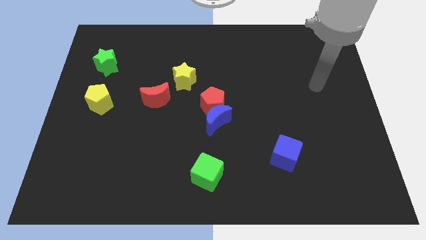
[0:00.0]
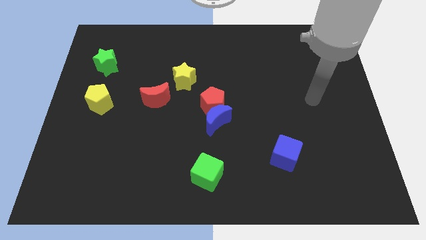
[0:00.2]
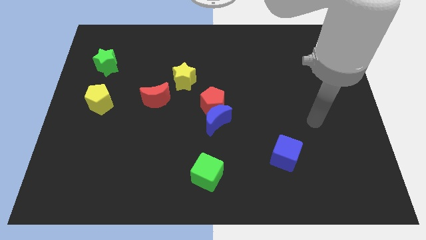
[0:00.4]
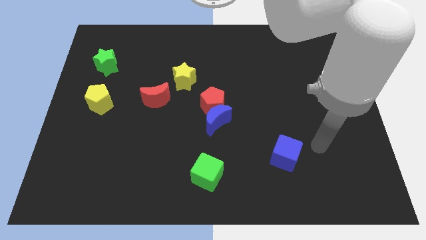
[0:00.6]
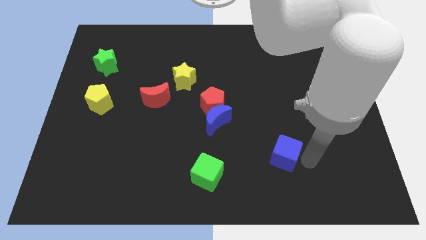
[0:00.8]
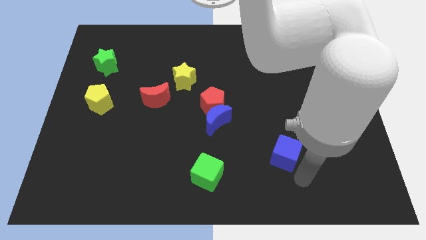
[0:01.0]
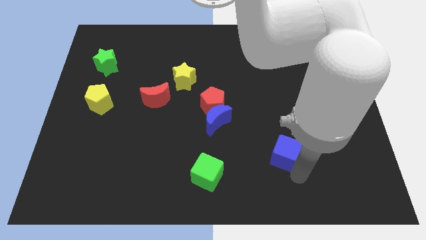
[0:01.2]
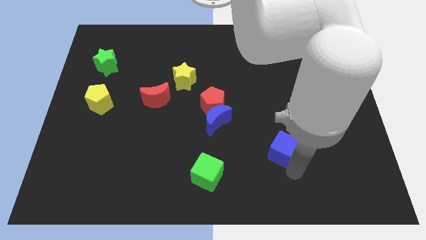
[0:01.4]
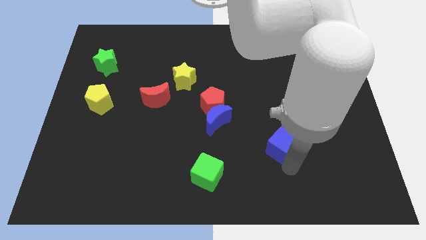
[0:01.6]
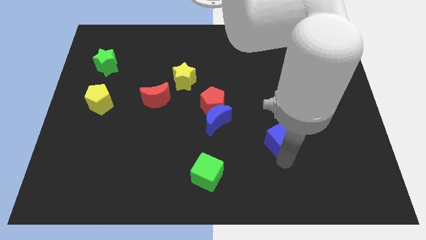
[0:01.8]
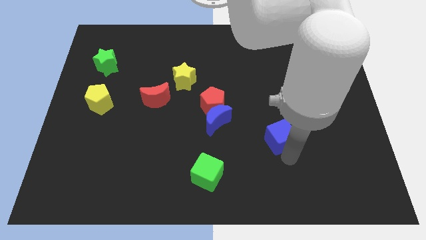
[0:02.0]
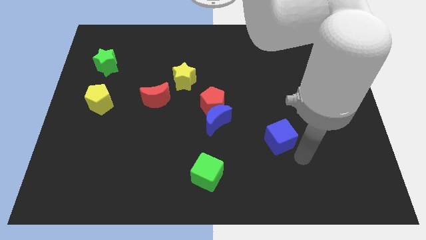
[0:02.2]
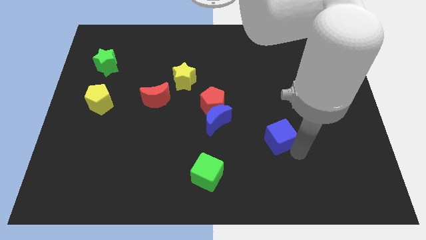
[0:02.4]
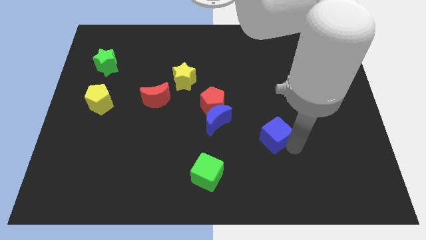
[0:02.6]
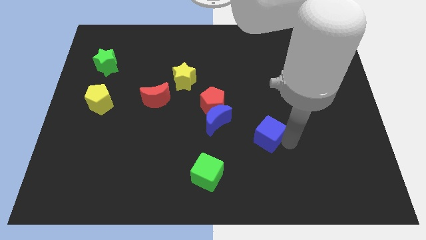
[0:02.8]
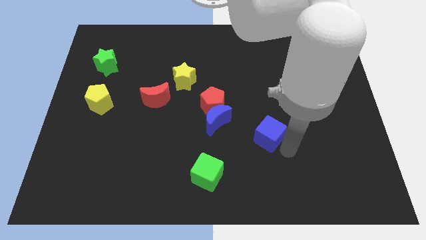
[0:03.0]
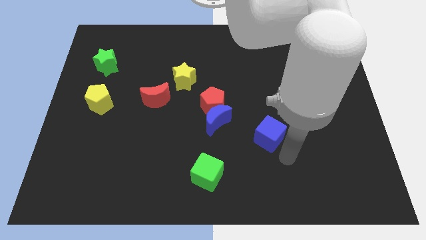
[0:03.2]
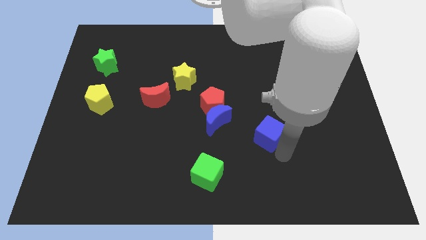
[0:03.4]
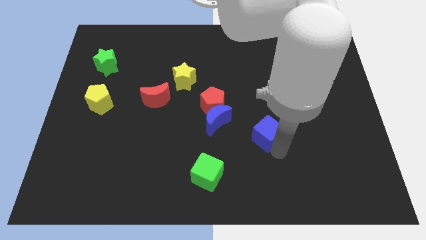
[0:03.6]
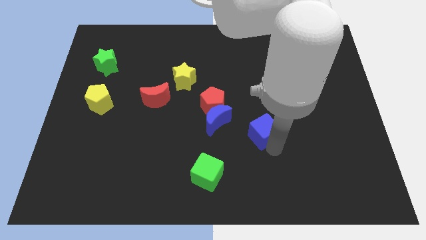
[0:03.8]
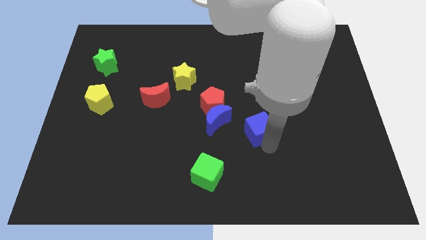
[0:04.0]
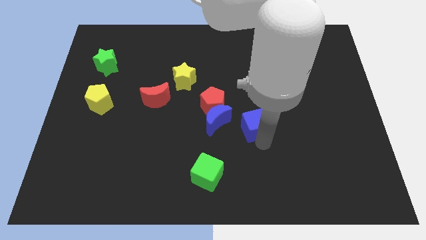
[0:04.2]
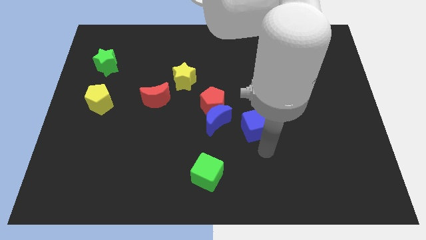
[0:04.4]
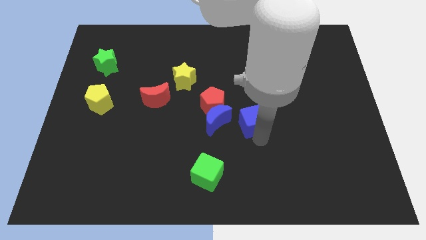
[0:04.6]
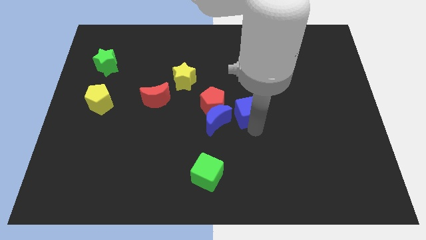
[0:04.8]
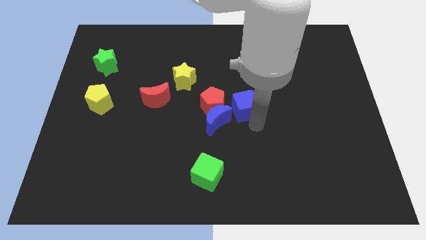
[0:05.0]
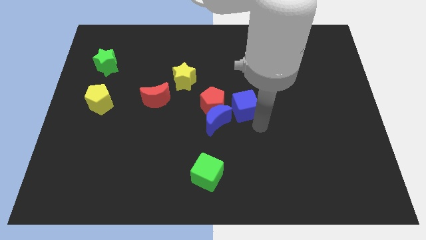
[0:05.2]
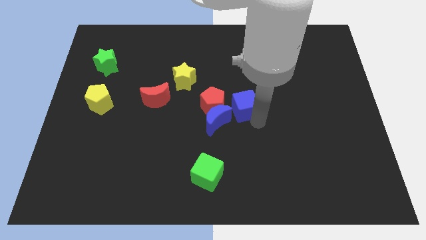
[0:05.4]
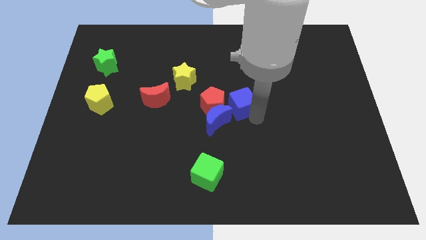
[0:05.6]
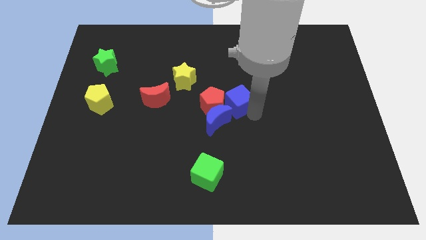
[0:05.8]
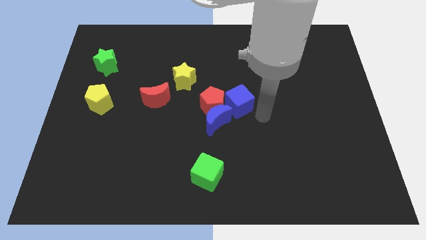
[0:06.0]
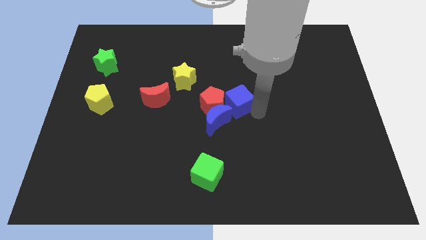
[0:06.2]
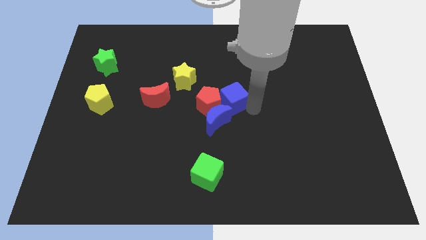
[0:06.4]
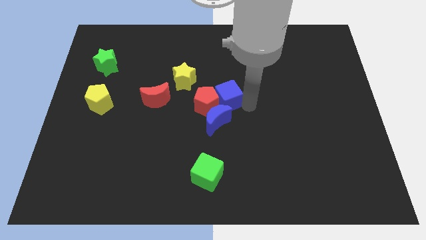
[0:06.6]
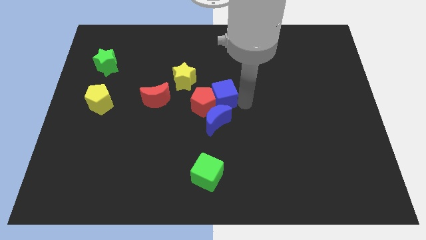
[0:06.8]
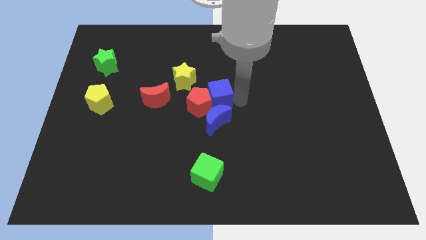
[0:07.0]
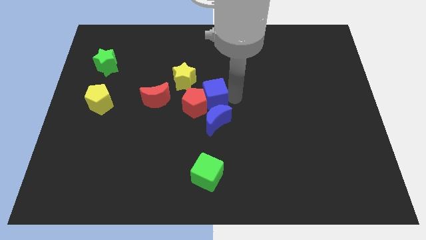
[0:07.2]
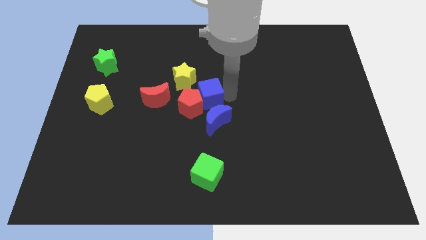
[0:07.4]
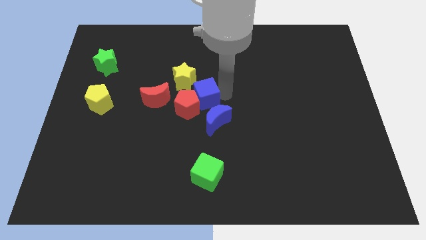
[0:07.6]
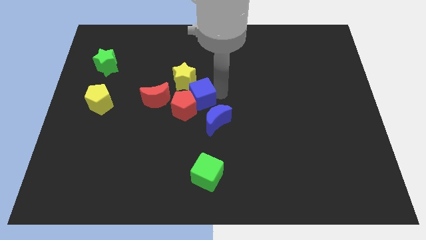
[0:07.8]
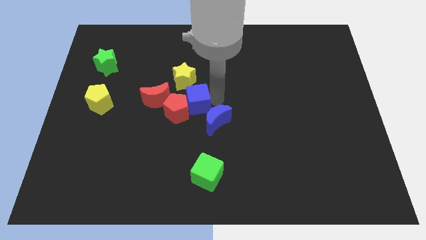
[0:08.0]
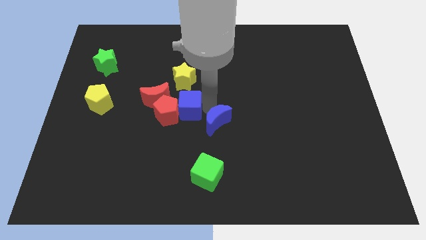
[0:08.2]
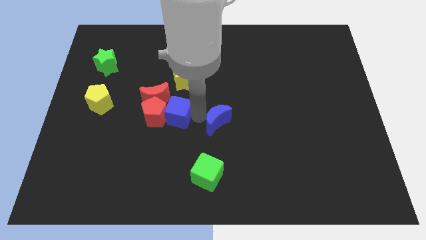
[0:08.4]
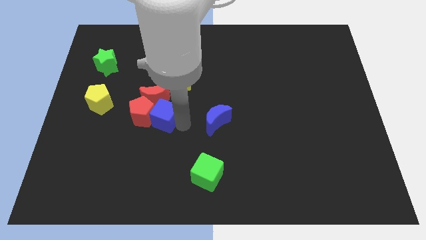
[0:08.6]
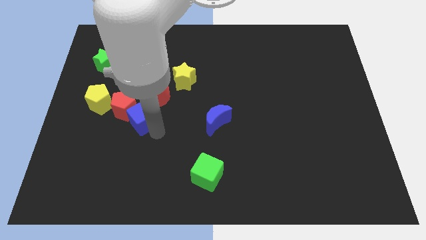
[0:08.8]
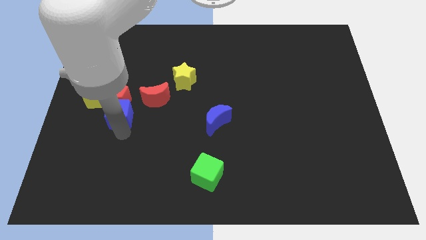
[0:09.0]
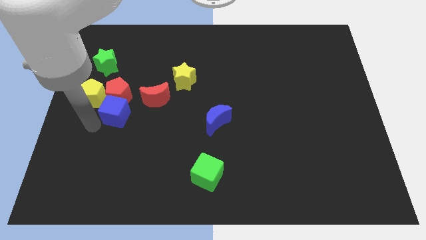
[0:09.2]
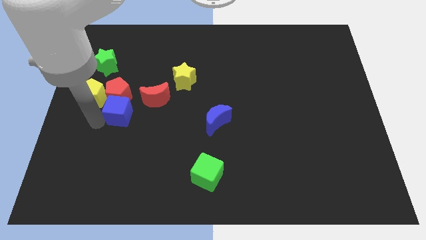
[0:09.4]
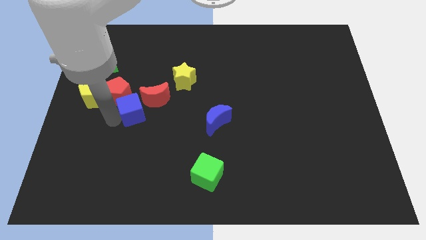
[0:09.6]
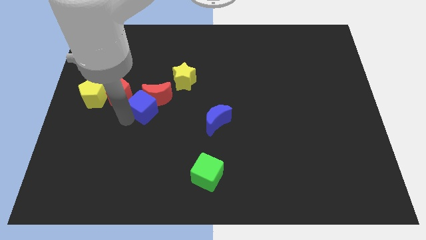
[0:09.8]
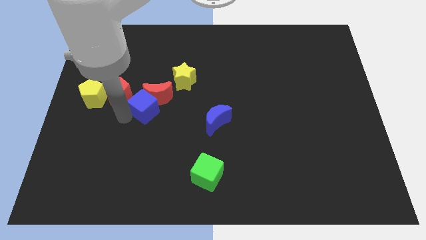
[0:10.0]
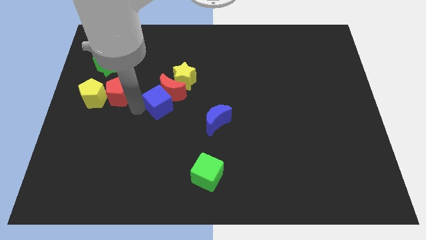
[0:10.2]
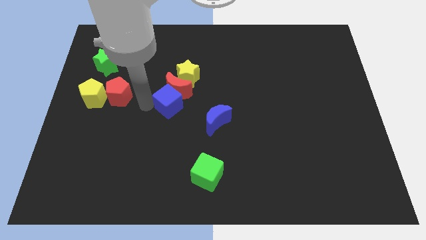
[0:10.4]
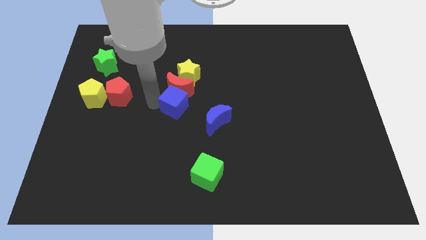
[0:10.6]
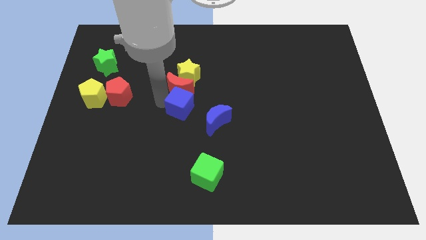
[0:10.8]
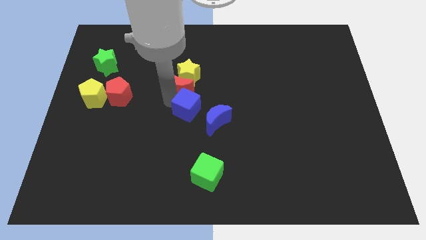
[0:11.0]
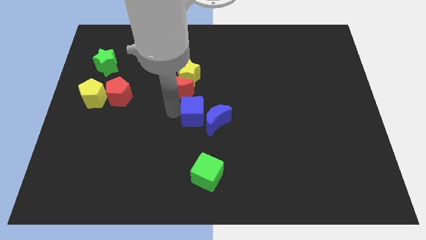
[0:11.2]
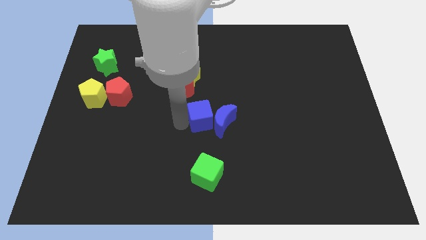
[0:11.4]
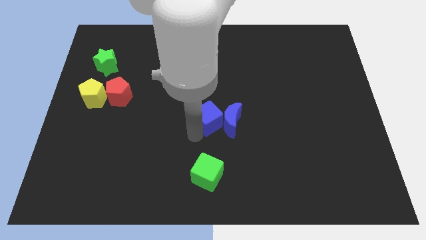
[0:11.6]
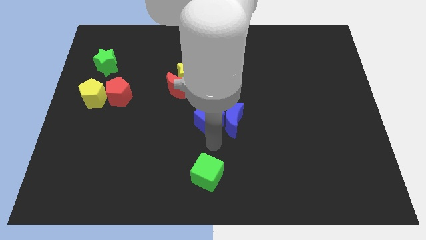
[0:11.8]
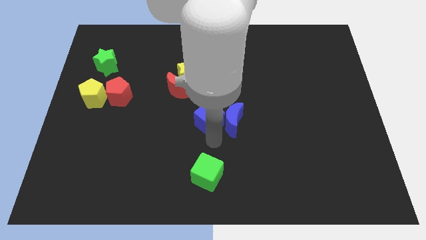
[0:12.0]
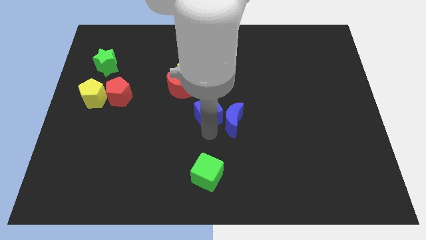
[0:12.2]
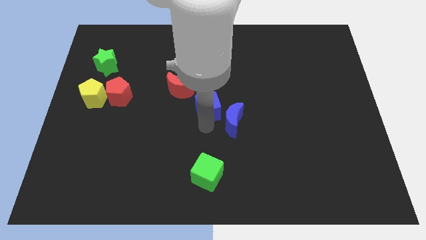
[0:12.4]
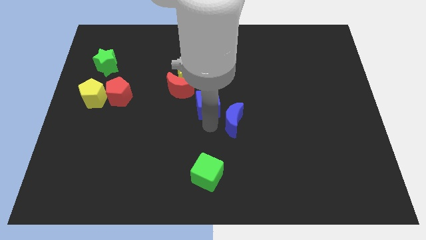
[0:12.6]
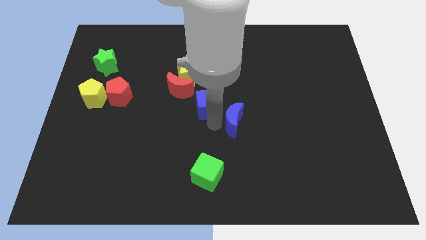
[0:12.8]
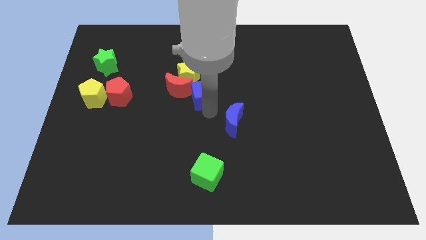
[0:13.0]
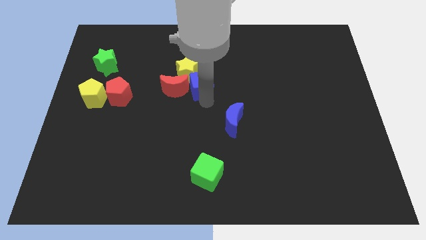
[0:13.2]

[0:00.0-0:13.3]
push the blue cube towards the yellow star

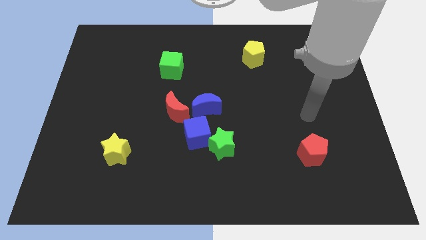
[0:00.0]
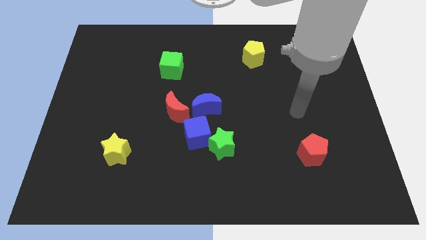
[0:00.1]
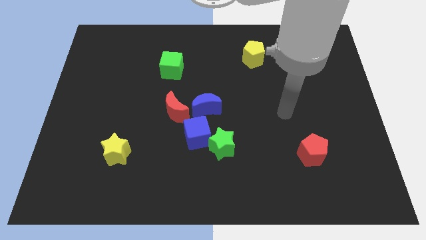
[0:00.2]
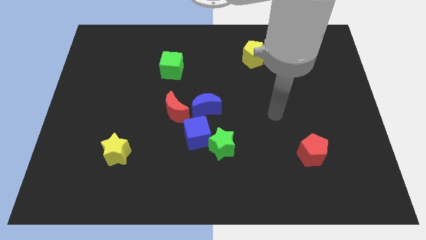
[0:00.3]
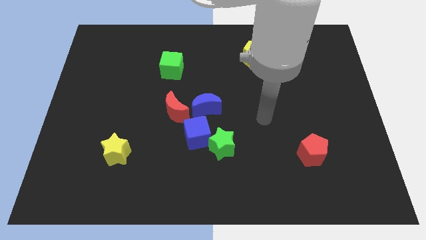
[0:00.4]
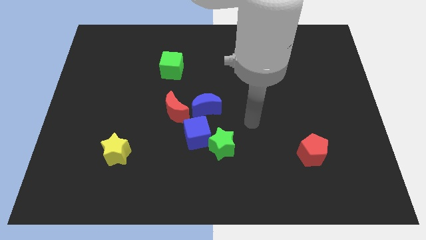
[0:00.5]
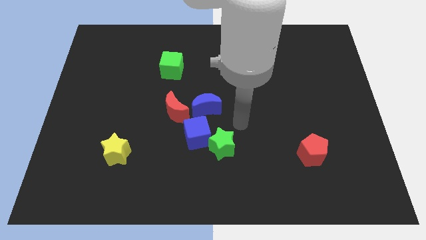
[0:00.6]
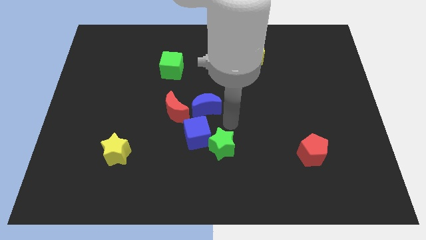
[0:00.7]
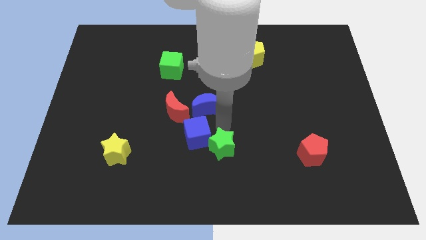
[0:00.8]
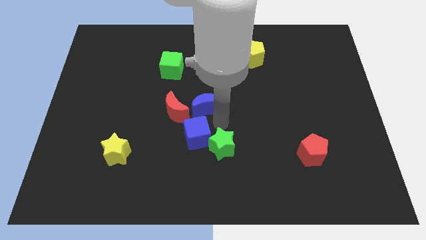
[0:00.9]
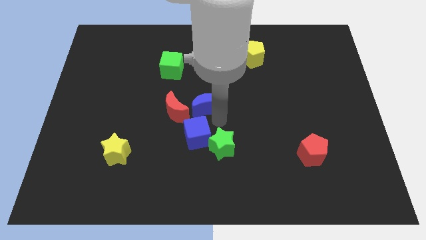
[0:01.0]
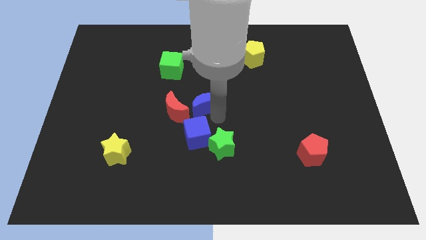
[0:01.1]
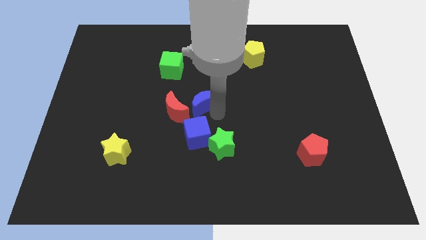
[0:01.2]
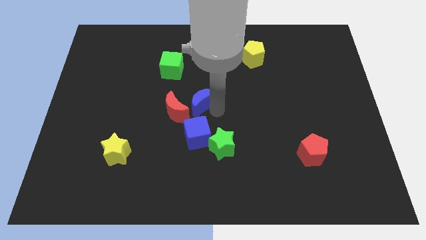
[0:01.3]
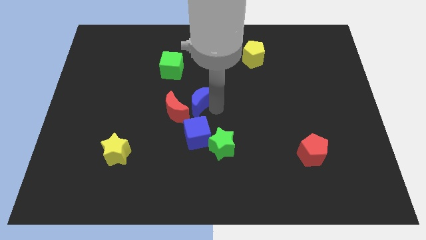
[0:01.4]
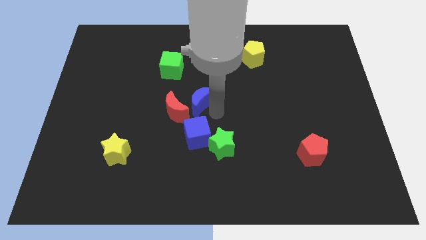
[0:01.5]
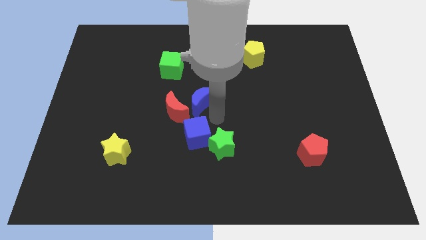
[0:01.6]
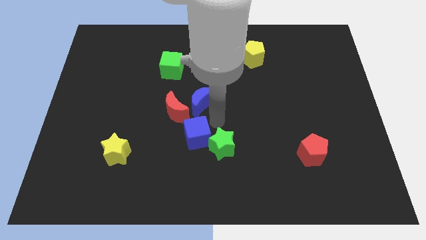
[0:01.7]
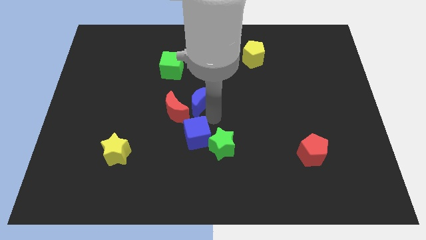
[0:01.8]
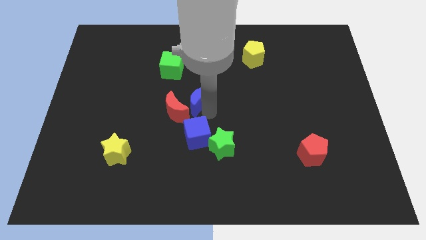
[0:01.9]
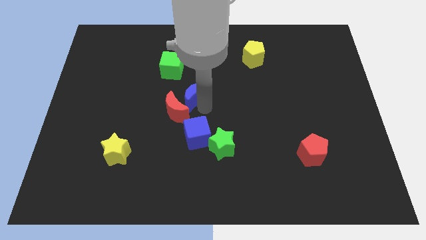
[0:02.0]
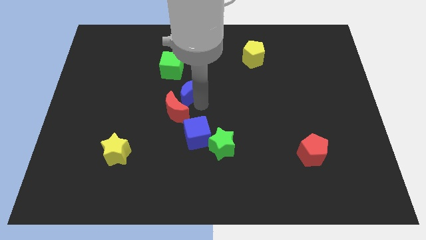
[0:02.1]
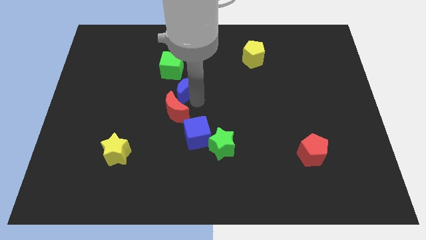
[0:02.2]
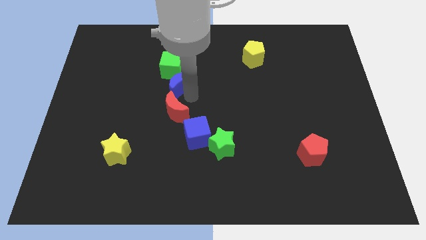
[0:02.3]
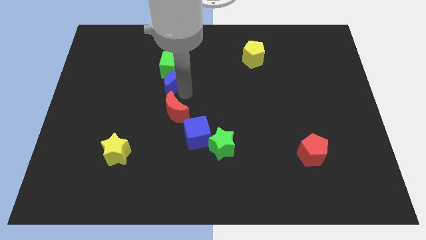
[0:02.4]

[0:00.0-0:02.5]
push the blue moon towards the green cube
